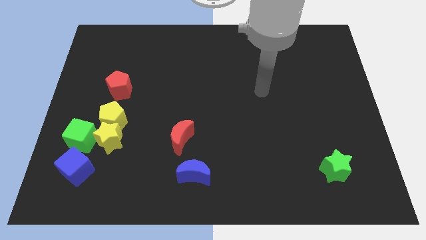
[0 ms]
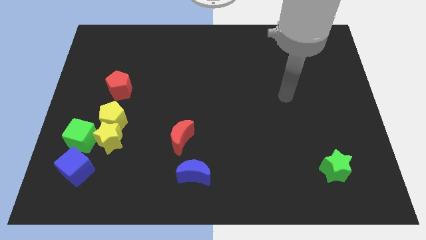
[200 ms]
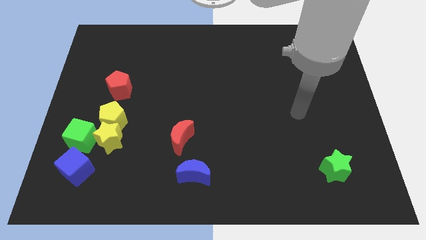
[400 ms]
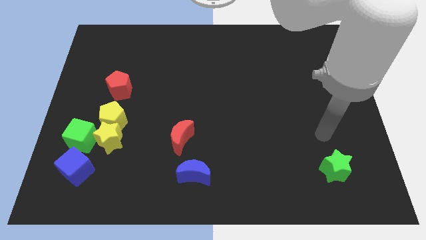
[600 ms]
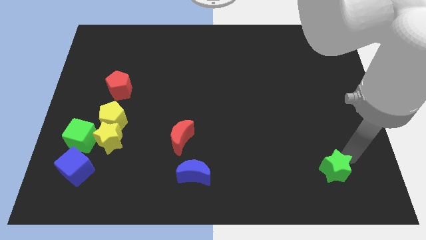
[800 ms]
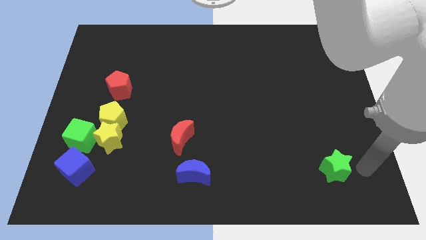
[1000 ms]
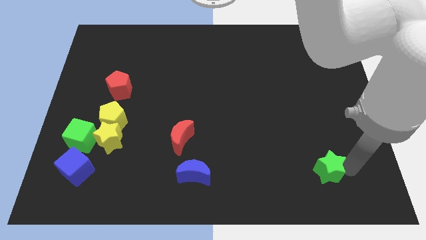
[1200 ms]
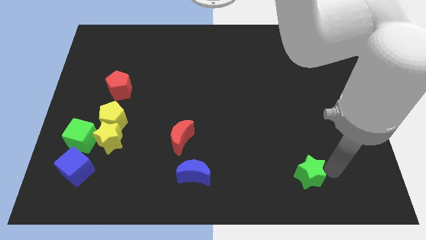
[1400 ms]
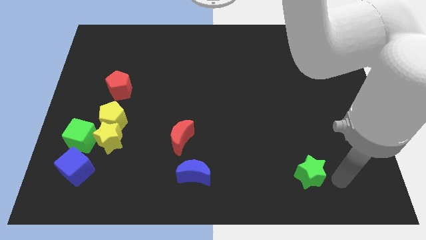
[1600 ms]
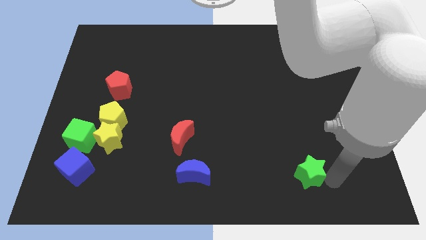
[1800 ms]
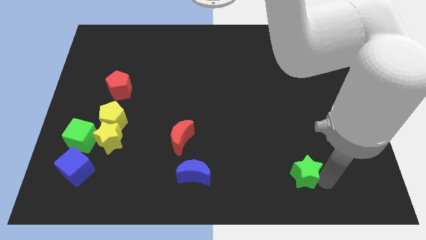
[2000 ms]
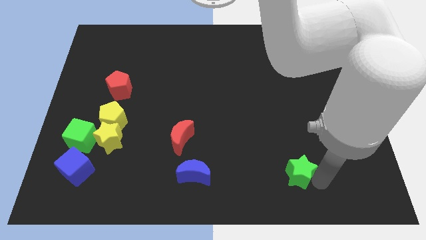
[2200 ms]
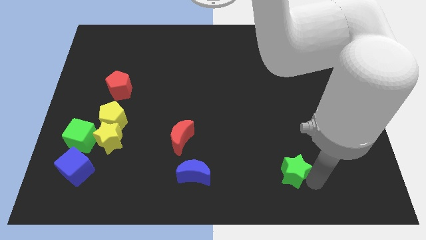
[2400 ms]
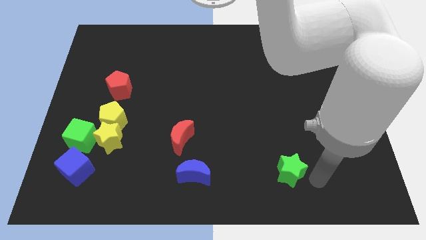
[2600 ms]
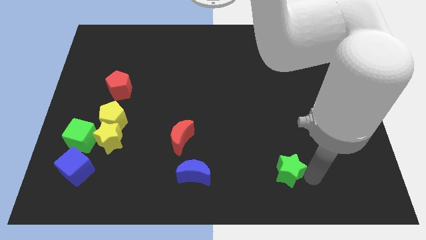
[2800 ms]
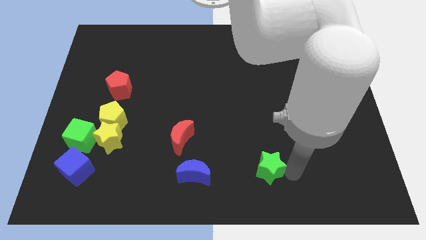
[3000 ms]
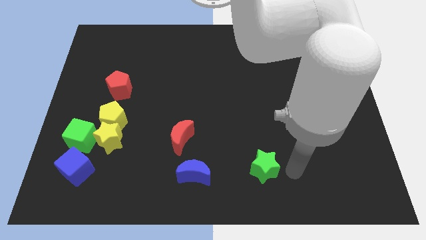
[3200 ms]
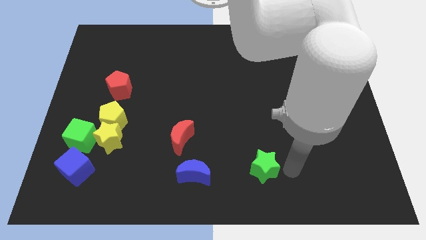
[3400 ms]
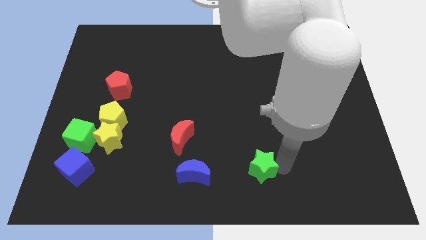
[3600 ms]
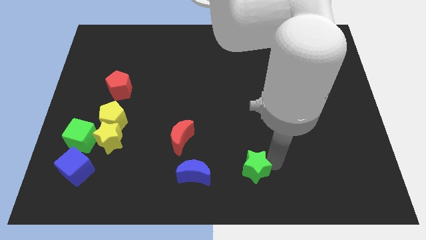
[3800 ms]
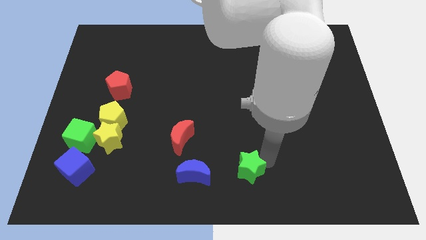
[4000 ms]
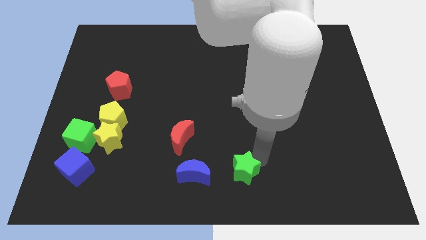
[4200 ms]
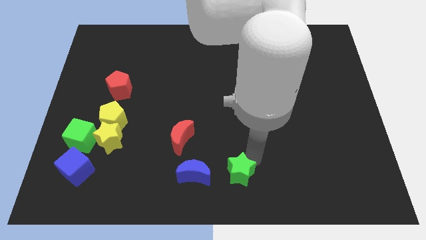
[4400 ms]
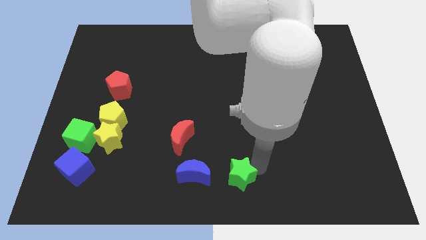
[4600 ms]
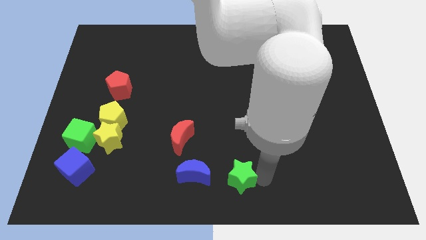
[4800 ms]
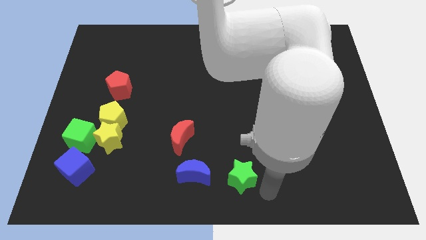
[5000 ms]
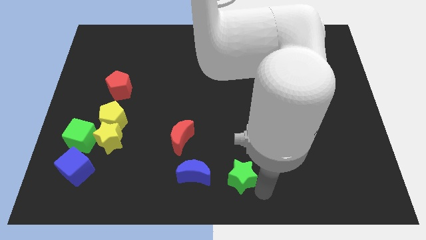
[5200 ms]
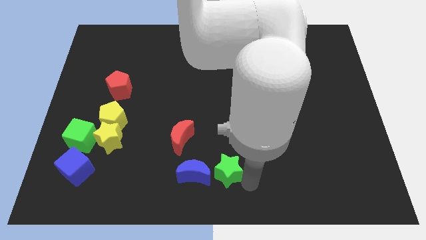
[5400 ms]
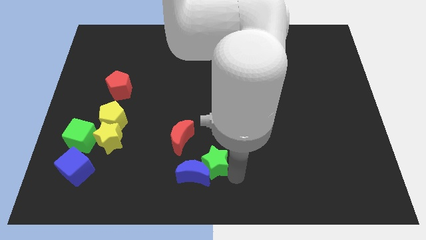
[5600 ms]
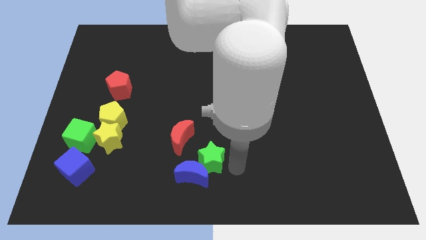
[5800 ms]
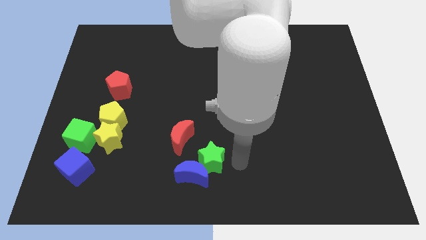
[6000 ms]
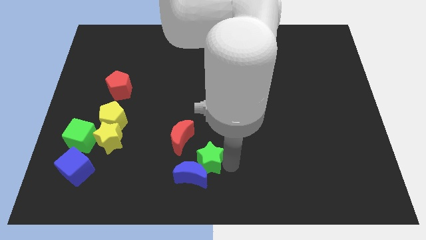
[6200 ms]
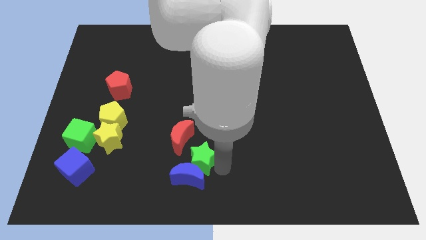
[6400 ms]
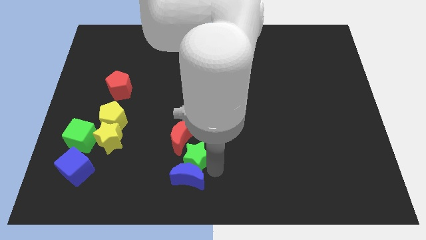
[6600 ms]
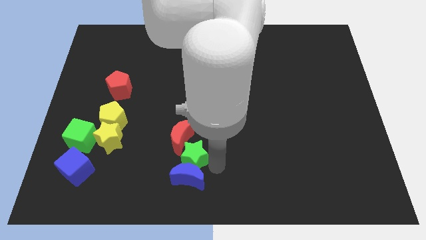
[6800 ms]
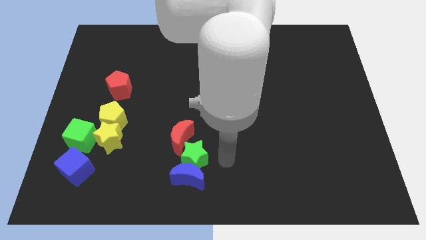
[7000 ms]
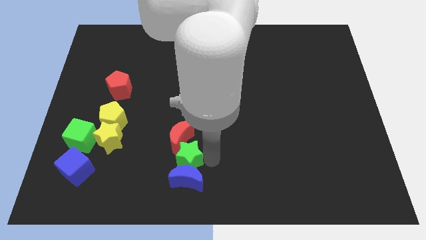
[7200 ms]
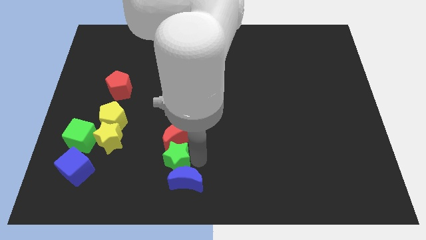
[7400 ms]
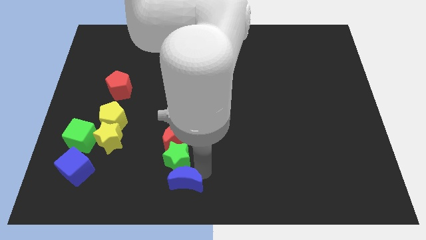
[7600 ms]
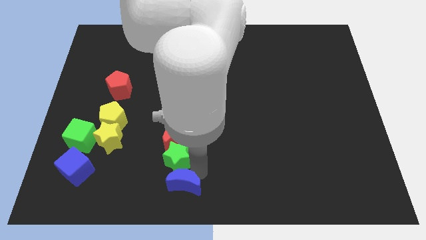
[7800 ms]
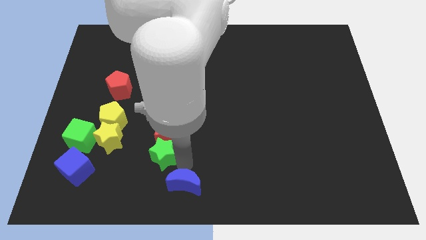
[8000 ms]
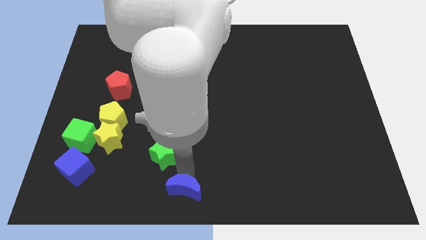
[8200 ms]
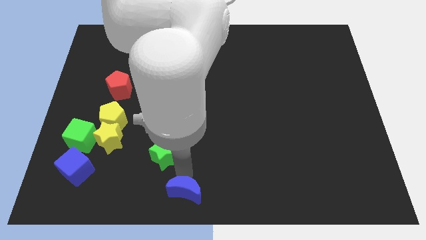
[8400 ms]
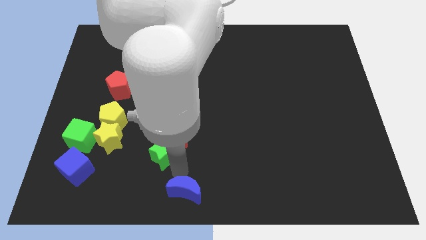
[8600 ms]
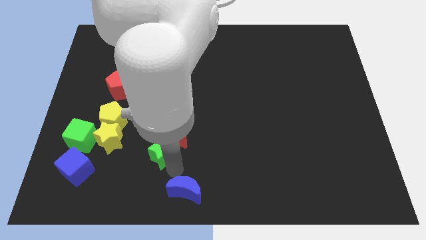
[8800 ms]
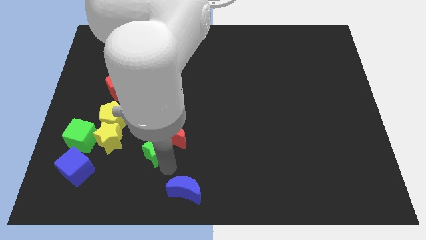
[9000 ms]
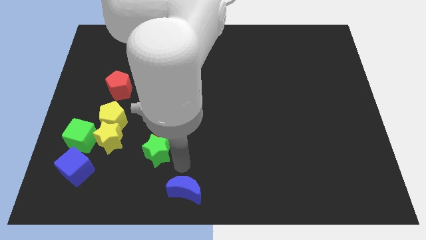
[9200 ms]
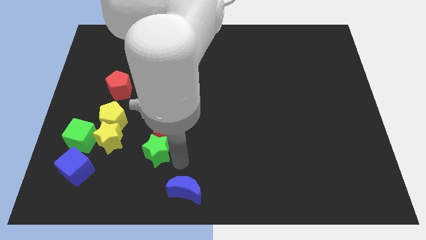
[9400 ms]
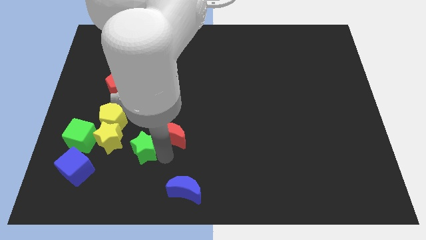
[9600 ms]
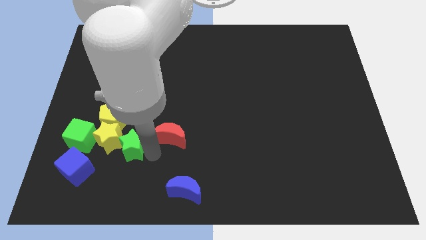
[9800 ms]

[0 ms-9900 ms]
push the green star close to the yellow star

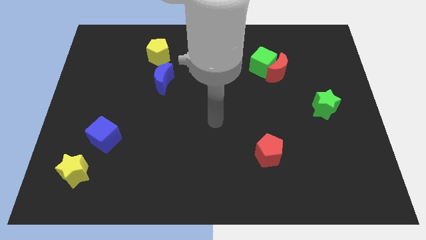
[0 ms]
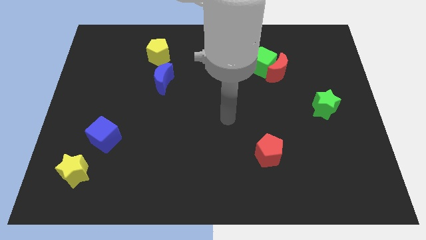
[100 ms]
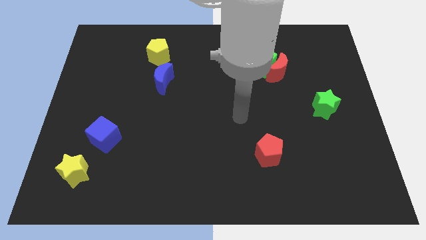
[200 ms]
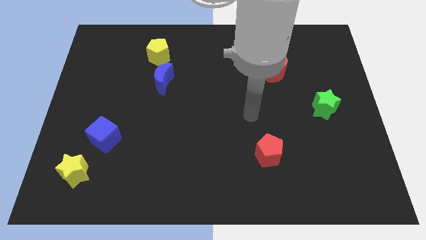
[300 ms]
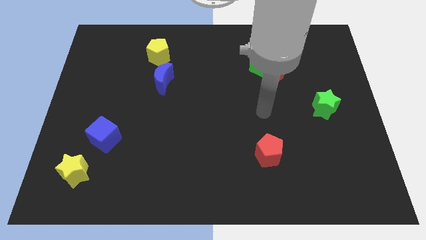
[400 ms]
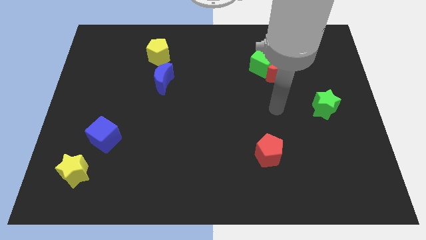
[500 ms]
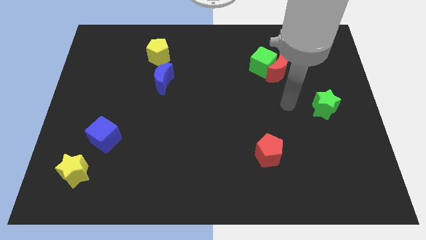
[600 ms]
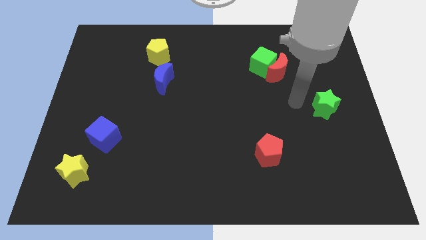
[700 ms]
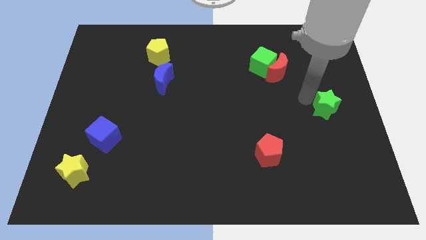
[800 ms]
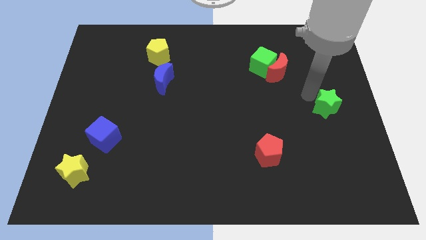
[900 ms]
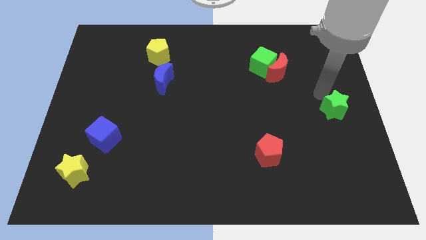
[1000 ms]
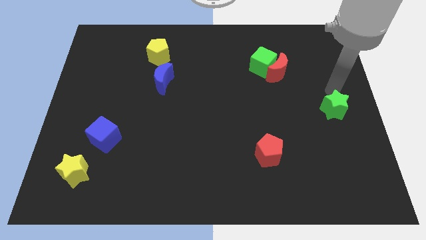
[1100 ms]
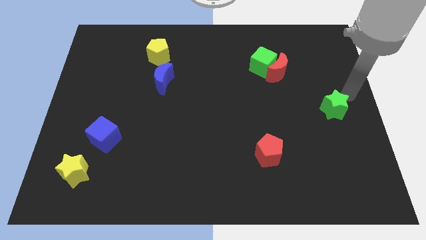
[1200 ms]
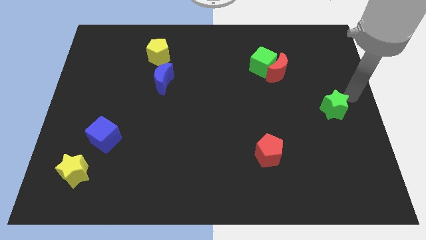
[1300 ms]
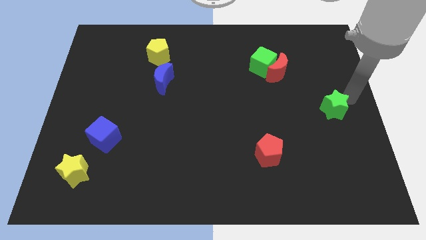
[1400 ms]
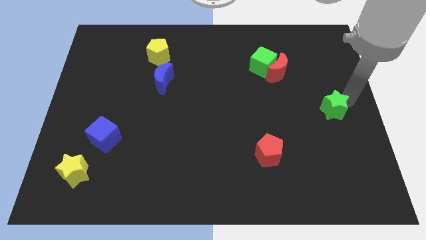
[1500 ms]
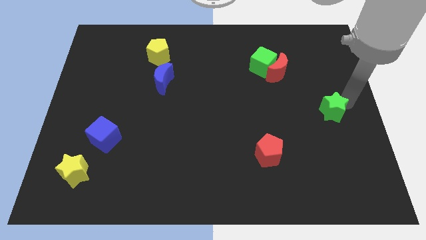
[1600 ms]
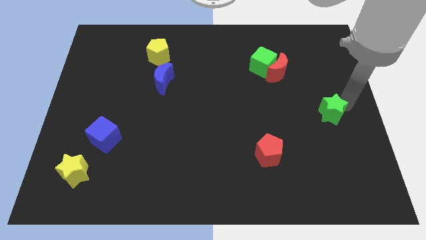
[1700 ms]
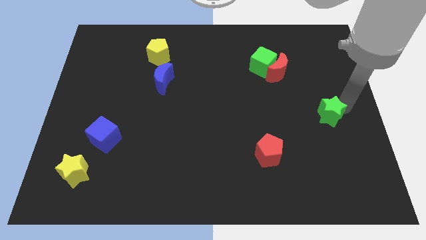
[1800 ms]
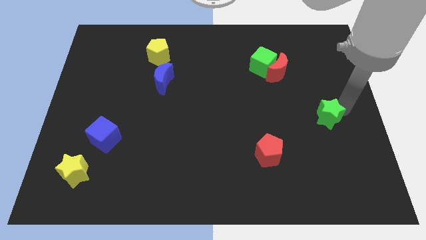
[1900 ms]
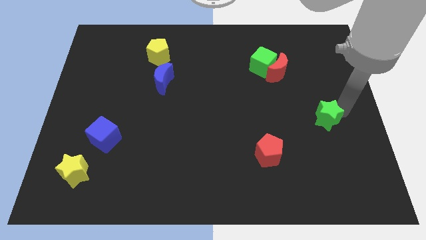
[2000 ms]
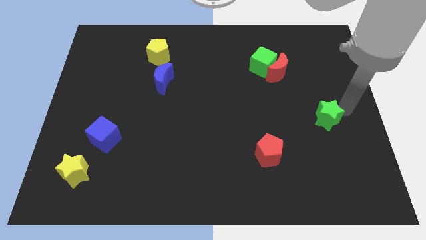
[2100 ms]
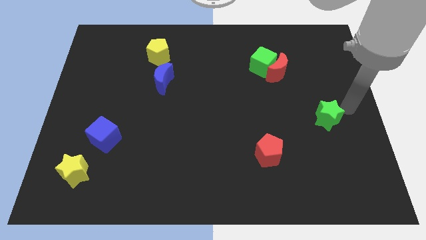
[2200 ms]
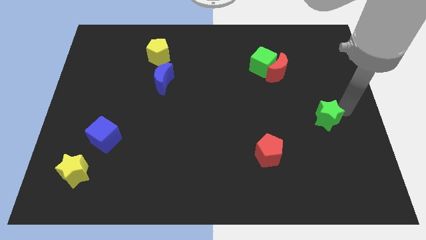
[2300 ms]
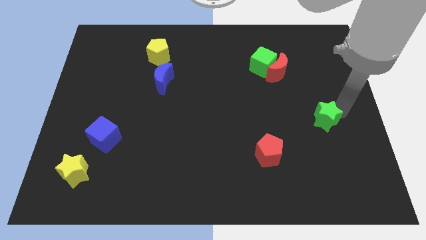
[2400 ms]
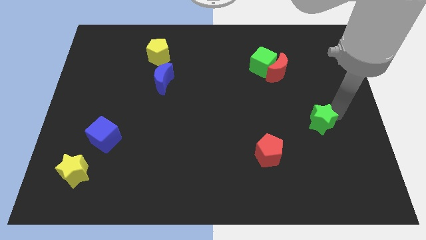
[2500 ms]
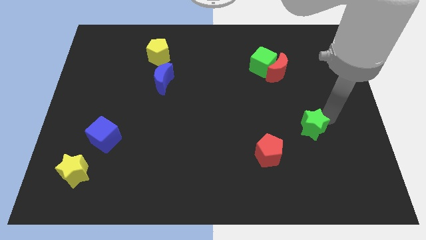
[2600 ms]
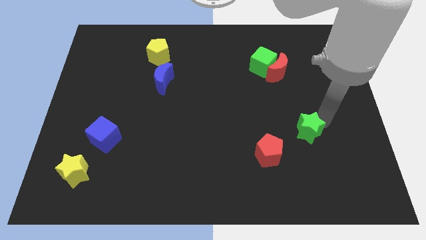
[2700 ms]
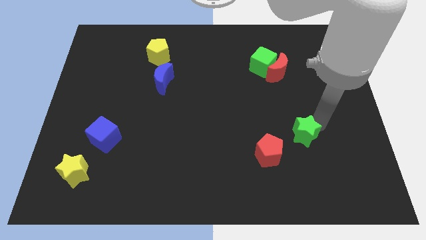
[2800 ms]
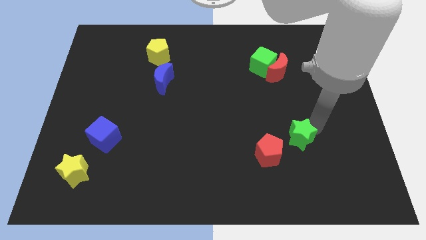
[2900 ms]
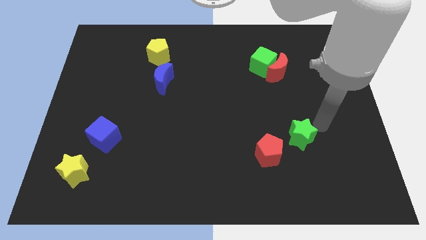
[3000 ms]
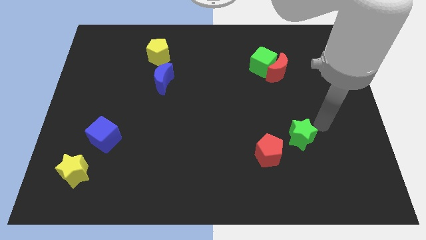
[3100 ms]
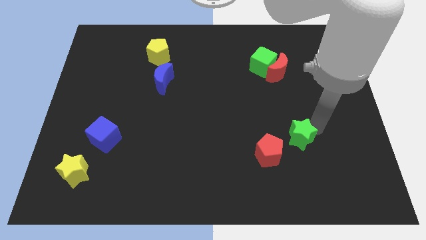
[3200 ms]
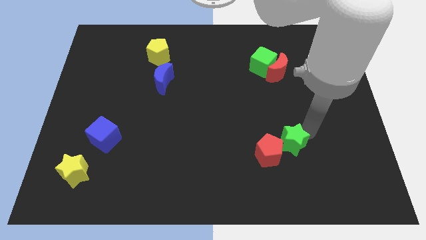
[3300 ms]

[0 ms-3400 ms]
push the green star next to the red pentagon
